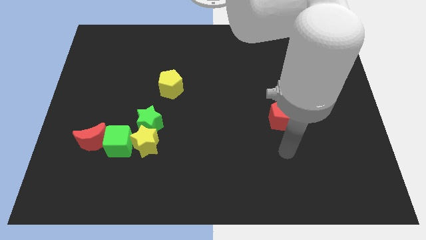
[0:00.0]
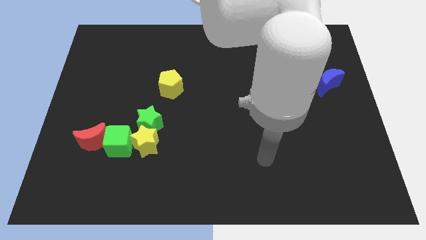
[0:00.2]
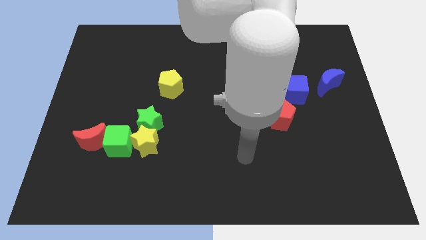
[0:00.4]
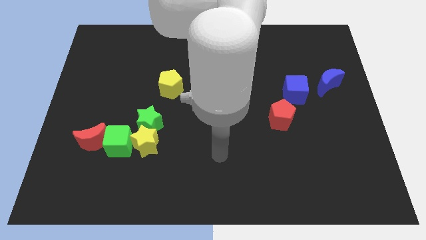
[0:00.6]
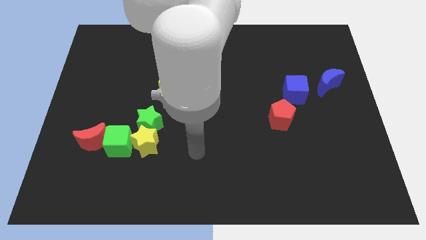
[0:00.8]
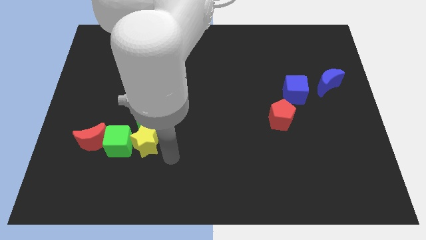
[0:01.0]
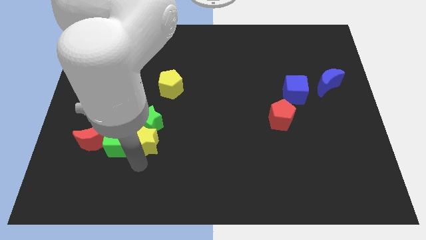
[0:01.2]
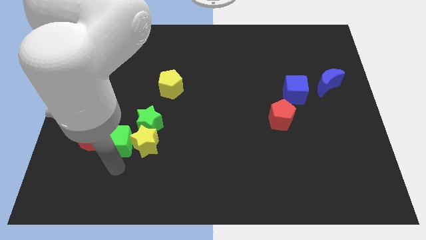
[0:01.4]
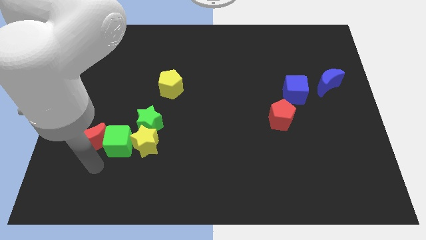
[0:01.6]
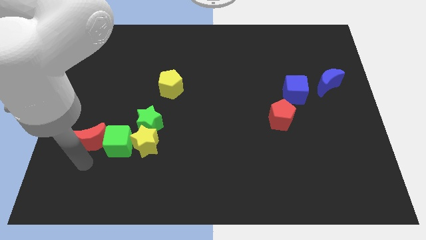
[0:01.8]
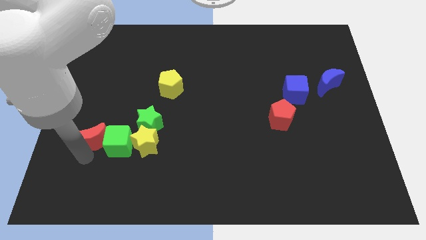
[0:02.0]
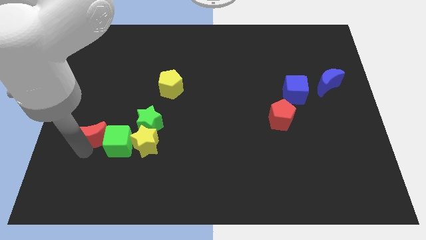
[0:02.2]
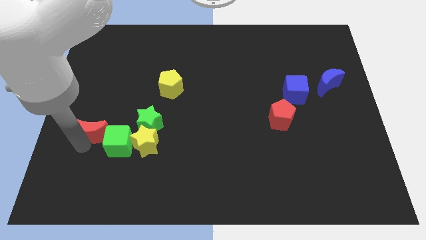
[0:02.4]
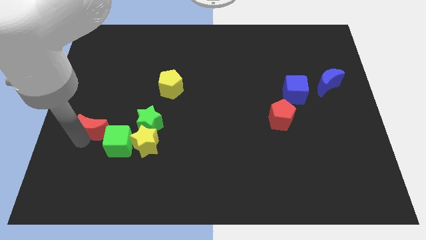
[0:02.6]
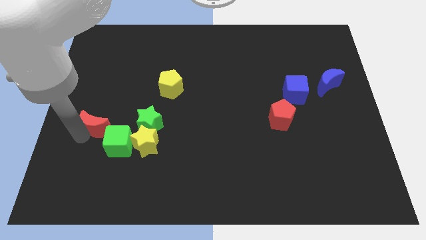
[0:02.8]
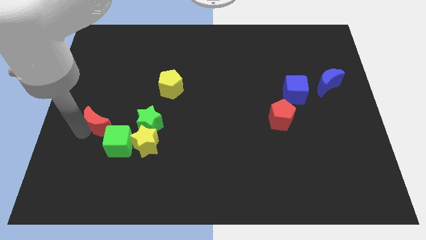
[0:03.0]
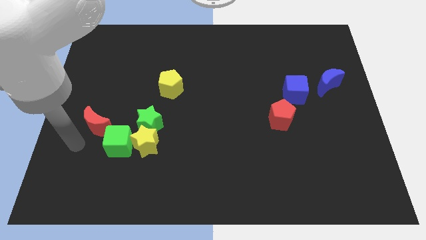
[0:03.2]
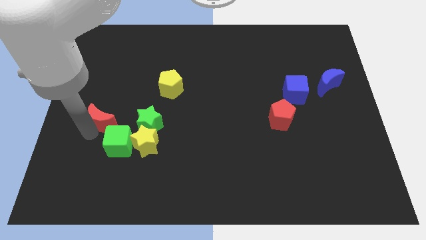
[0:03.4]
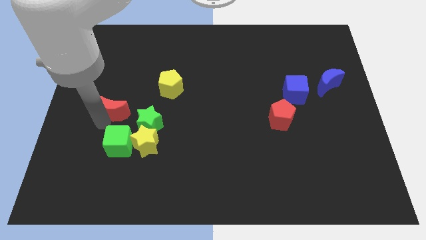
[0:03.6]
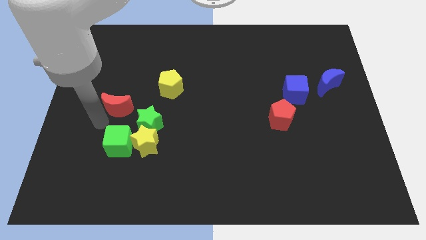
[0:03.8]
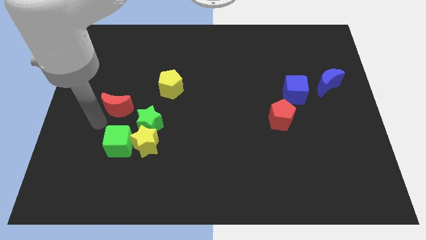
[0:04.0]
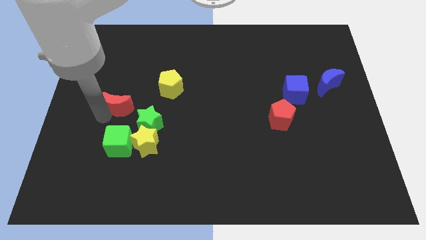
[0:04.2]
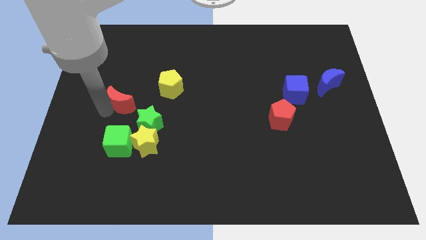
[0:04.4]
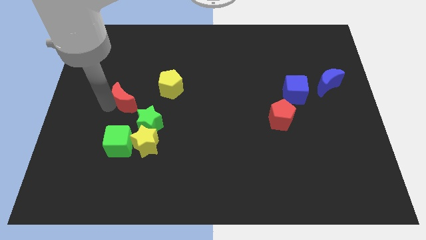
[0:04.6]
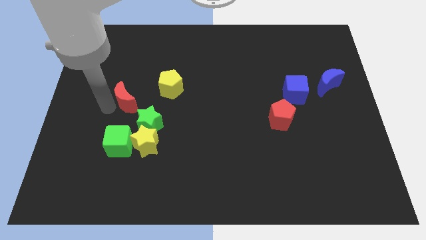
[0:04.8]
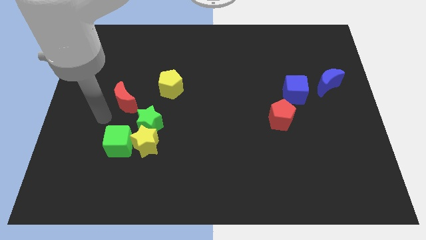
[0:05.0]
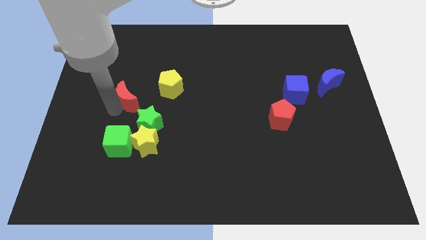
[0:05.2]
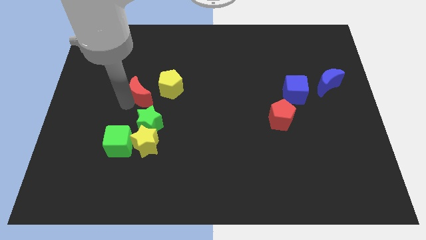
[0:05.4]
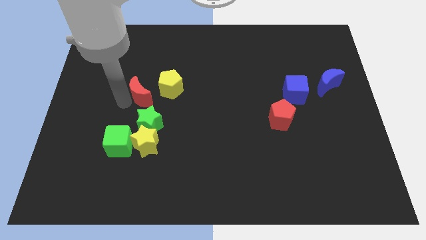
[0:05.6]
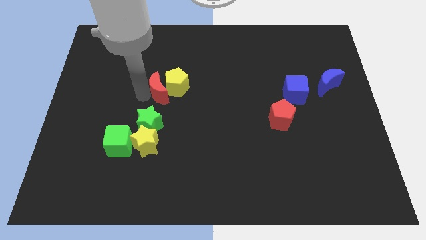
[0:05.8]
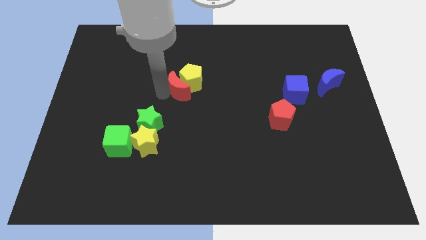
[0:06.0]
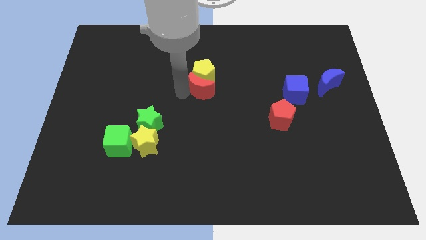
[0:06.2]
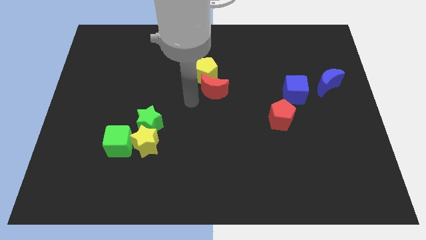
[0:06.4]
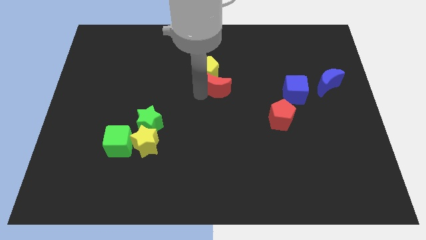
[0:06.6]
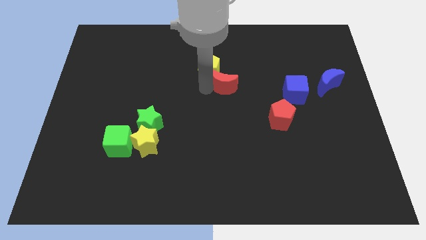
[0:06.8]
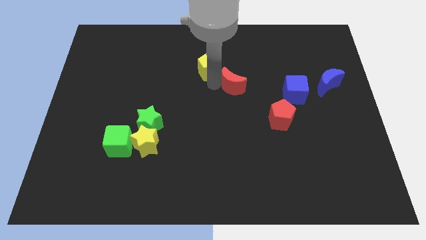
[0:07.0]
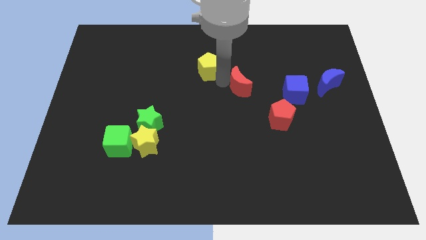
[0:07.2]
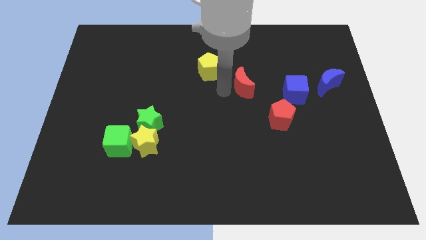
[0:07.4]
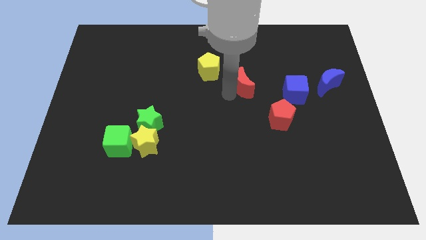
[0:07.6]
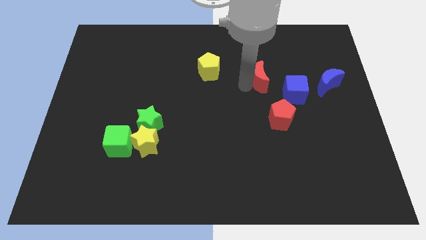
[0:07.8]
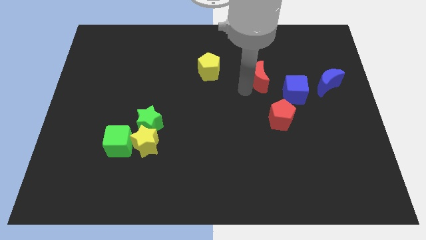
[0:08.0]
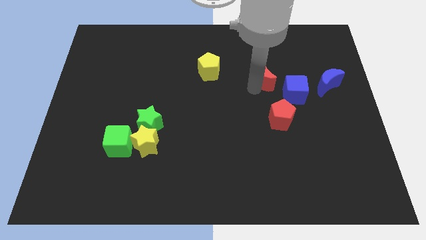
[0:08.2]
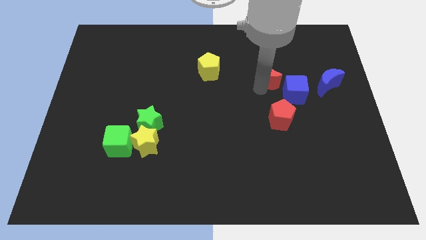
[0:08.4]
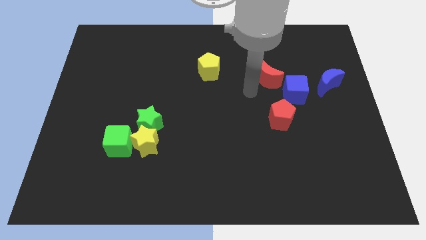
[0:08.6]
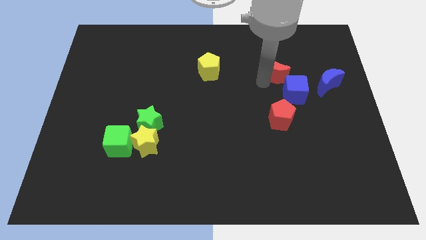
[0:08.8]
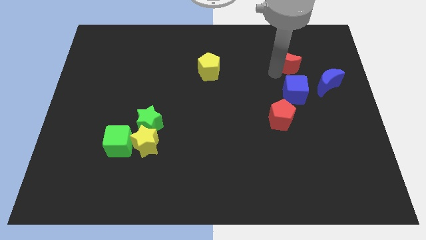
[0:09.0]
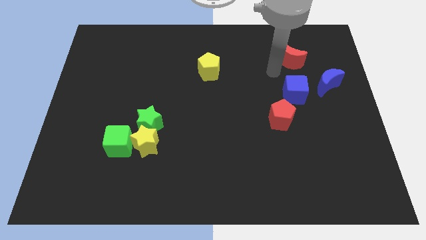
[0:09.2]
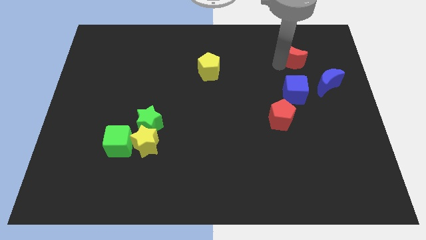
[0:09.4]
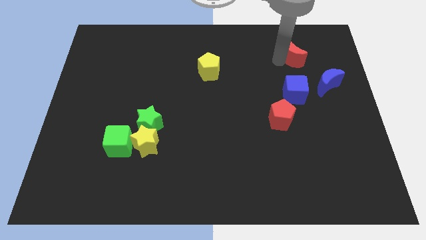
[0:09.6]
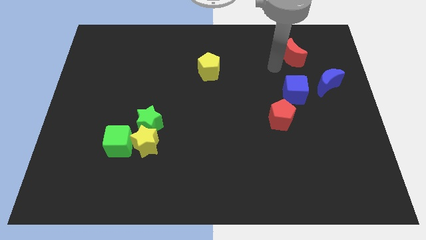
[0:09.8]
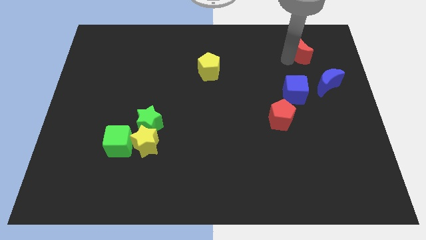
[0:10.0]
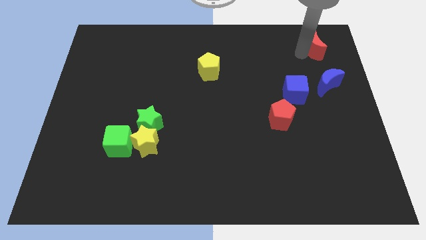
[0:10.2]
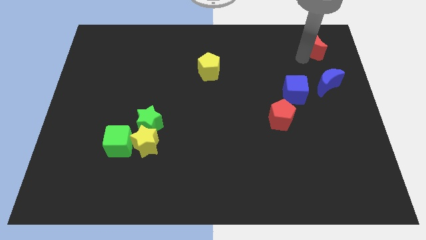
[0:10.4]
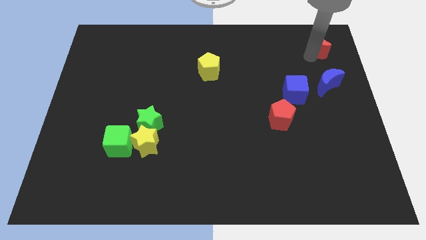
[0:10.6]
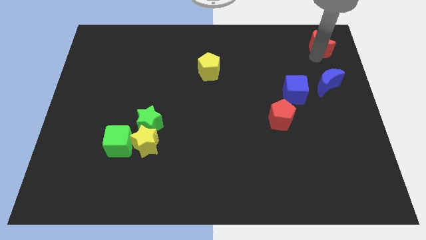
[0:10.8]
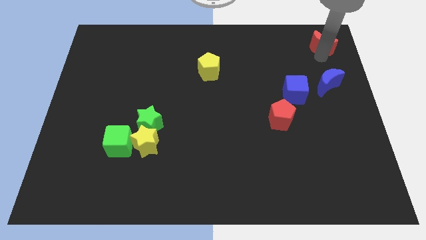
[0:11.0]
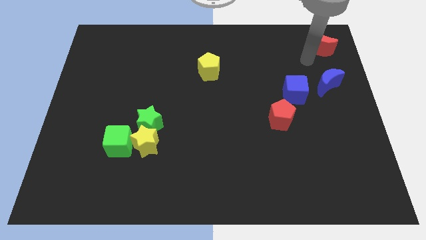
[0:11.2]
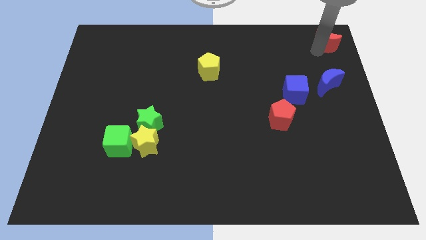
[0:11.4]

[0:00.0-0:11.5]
push the red moon to the top right of the board

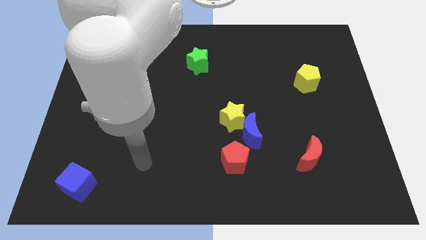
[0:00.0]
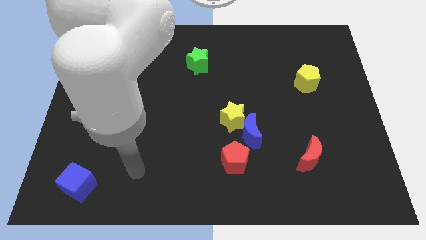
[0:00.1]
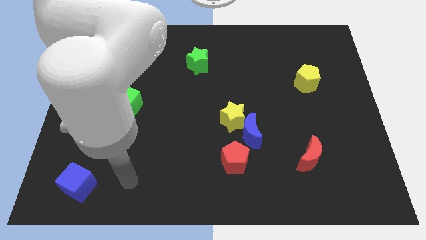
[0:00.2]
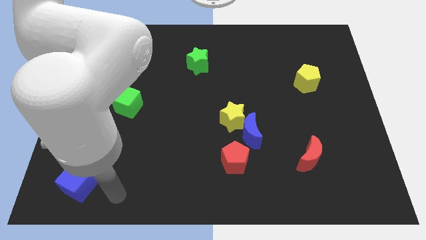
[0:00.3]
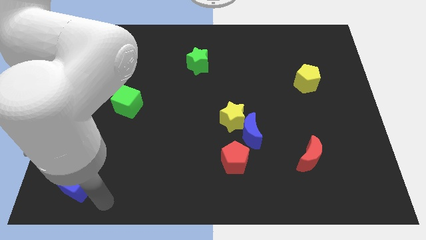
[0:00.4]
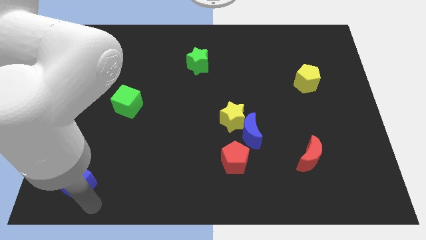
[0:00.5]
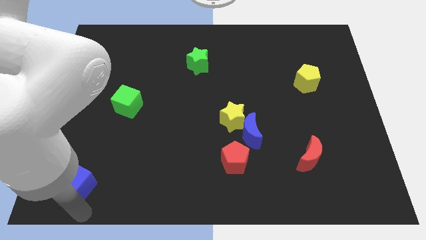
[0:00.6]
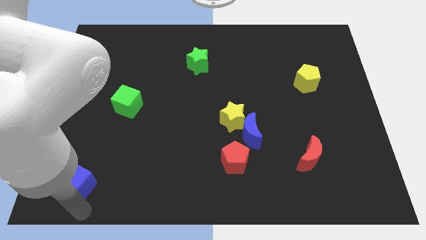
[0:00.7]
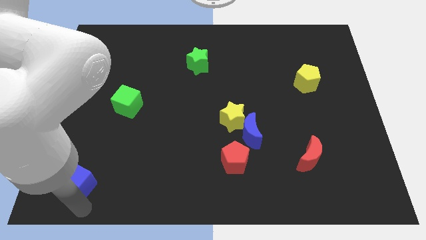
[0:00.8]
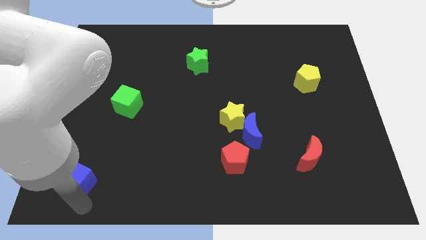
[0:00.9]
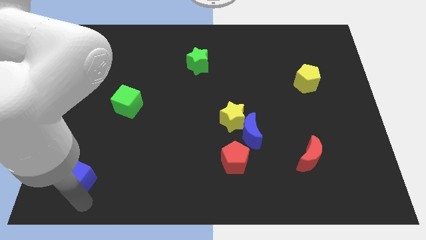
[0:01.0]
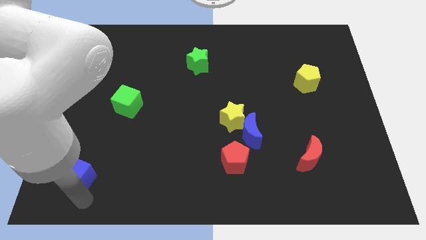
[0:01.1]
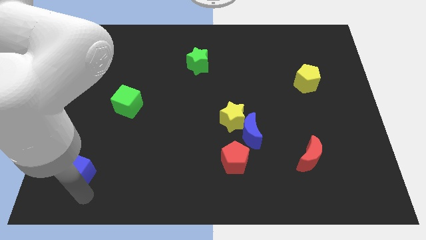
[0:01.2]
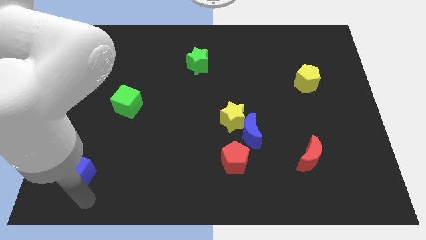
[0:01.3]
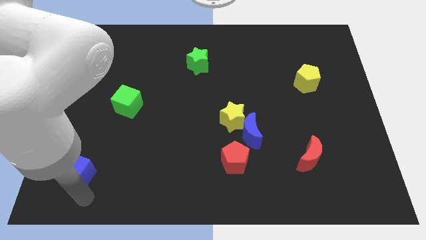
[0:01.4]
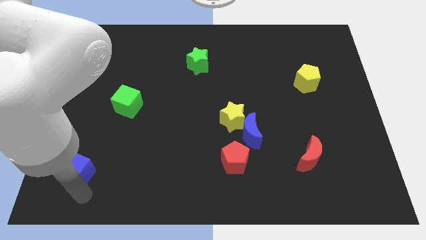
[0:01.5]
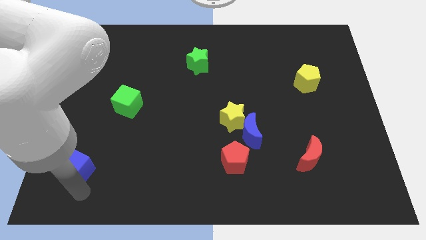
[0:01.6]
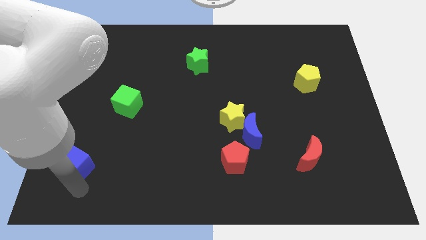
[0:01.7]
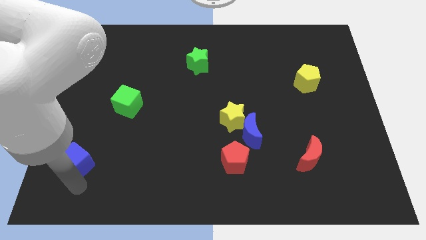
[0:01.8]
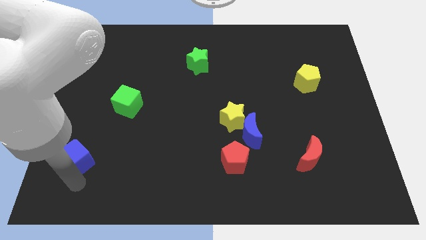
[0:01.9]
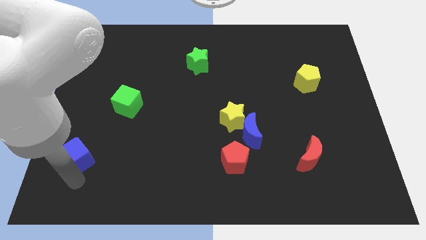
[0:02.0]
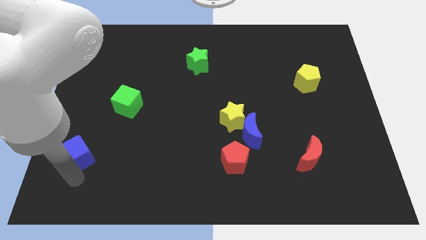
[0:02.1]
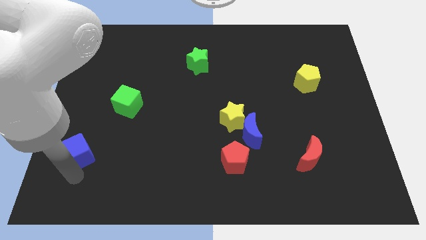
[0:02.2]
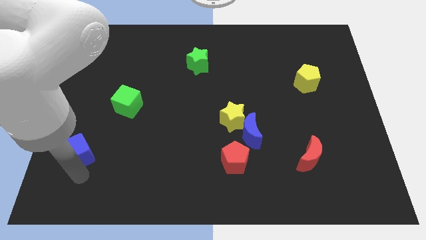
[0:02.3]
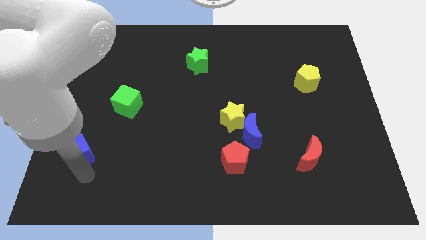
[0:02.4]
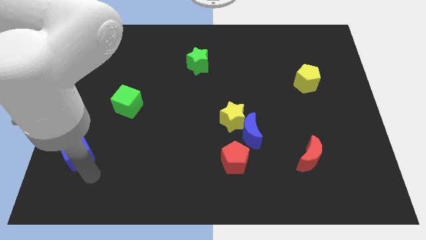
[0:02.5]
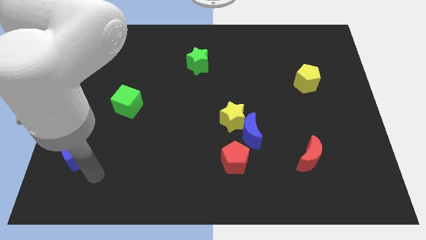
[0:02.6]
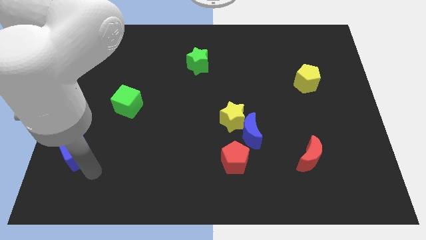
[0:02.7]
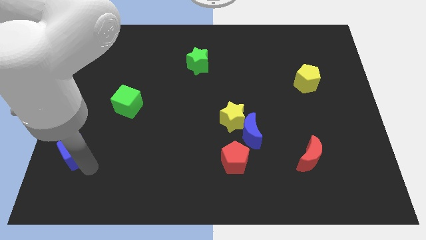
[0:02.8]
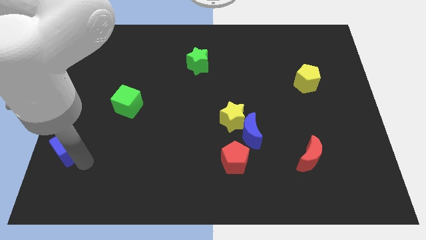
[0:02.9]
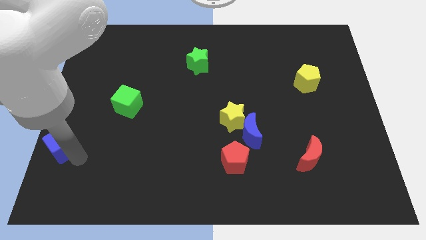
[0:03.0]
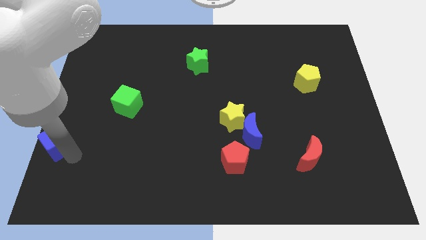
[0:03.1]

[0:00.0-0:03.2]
push the blue cube to the center left
